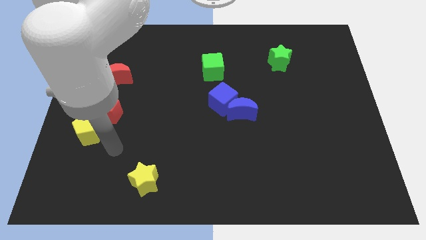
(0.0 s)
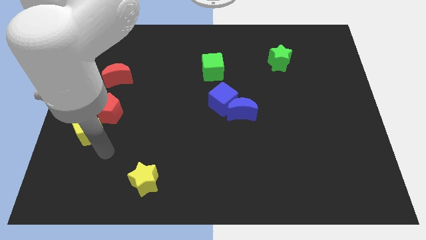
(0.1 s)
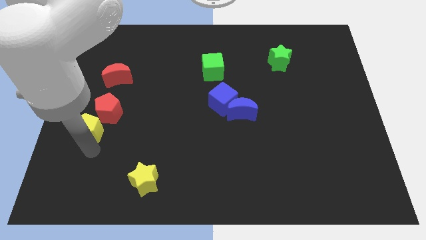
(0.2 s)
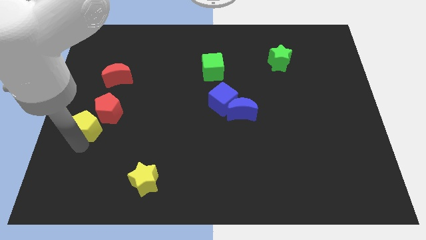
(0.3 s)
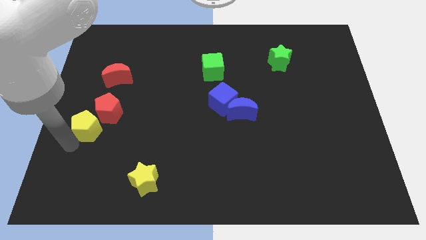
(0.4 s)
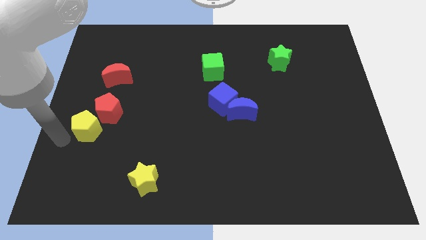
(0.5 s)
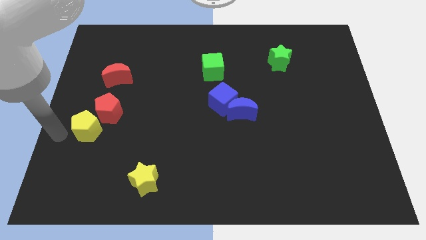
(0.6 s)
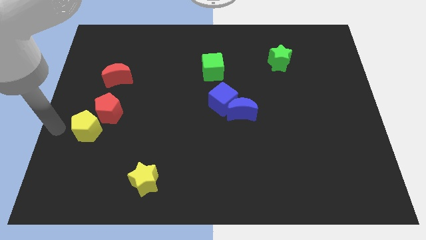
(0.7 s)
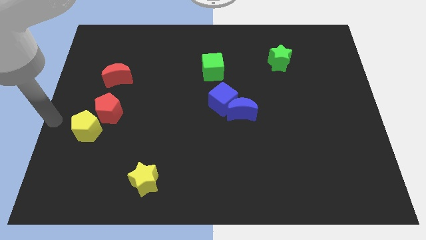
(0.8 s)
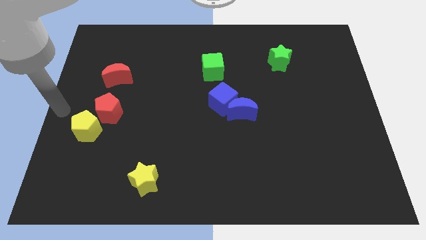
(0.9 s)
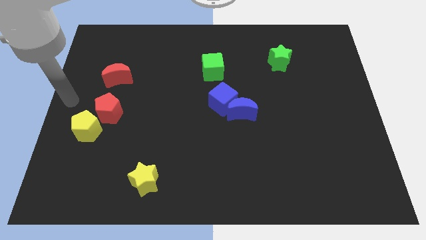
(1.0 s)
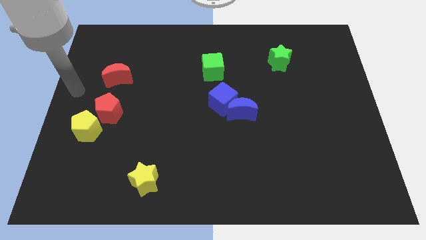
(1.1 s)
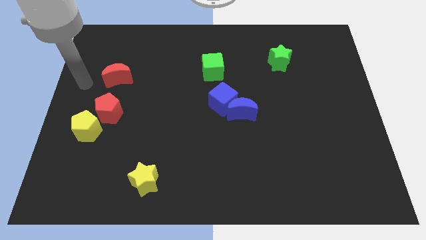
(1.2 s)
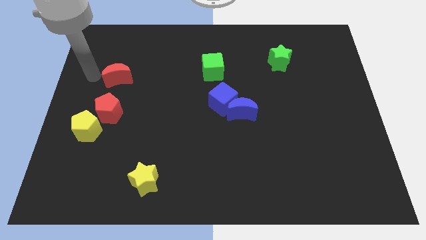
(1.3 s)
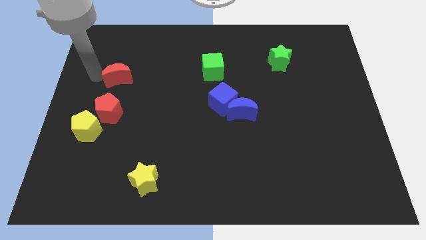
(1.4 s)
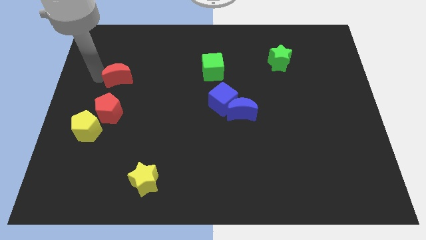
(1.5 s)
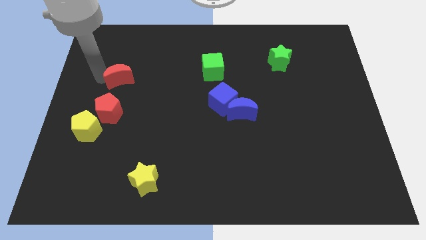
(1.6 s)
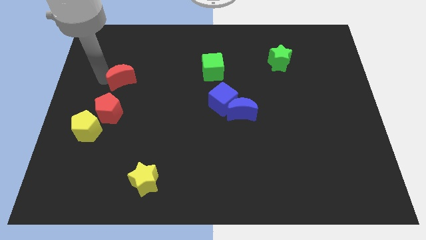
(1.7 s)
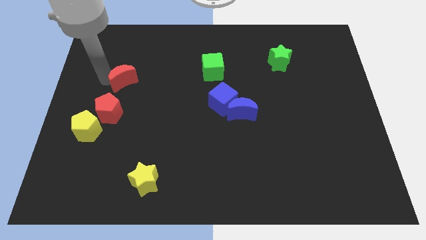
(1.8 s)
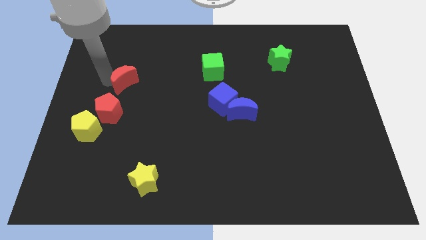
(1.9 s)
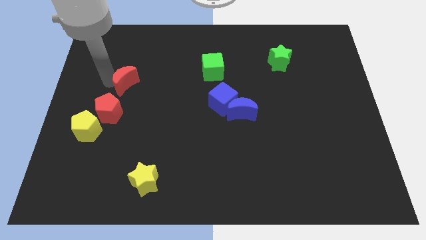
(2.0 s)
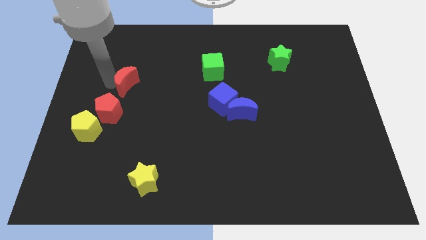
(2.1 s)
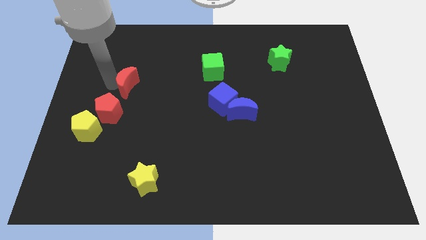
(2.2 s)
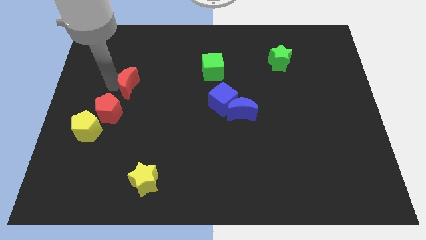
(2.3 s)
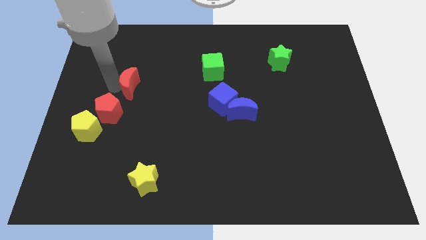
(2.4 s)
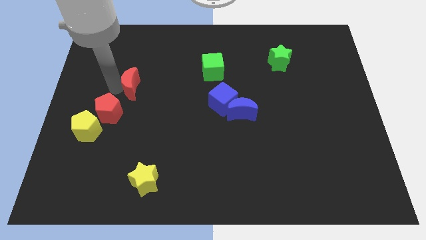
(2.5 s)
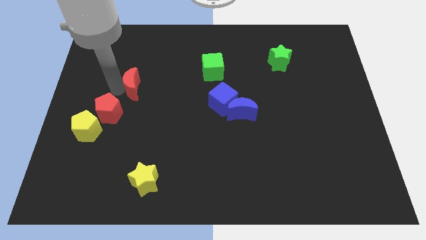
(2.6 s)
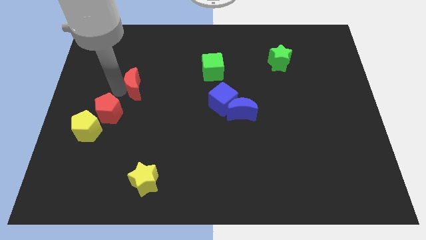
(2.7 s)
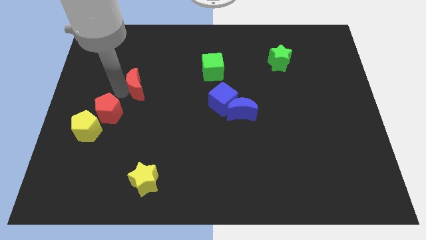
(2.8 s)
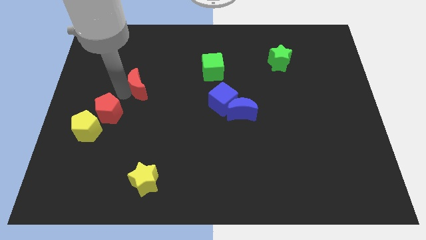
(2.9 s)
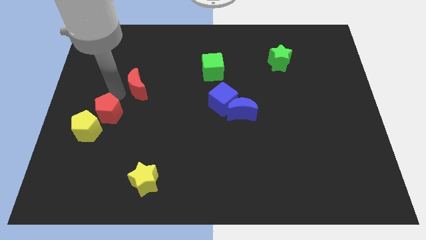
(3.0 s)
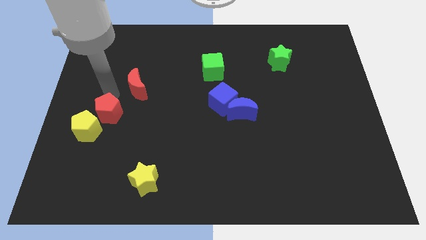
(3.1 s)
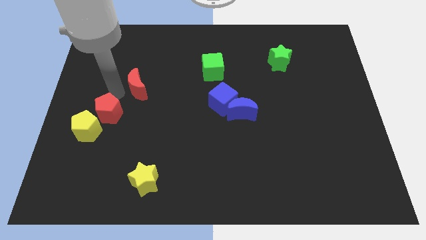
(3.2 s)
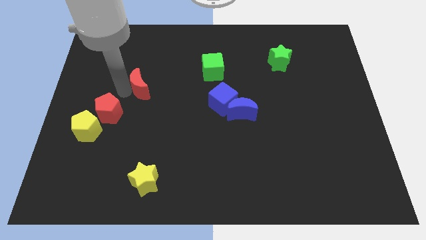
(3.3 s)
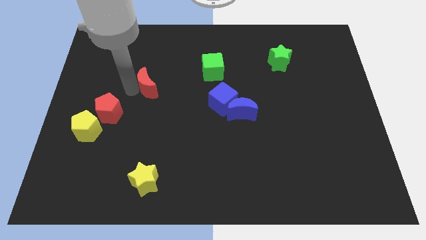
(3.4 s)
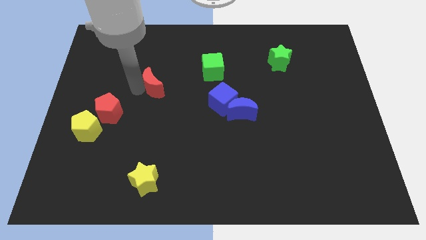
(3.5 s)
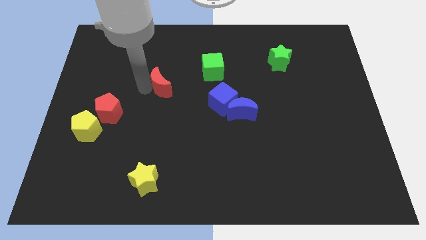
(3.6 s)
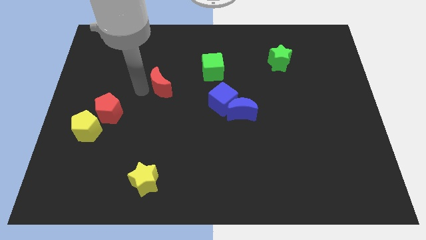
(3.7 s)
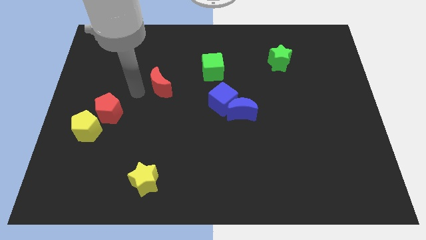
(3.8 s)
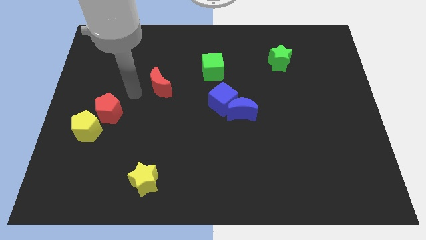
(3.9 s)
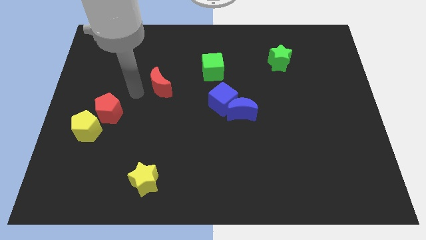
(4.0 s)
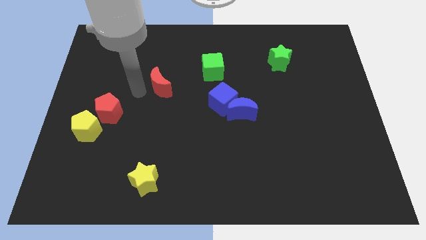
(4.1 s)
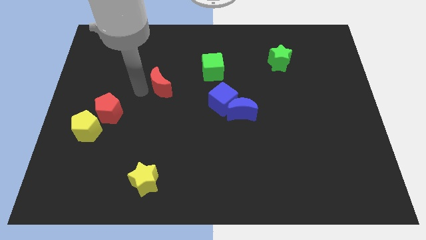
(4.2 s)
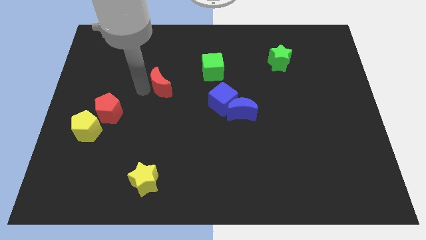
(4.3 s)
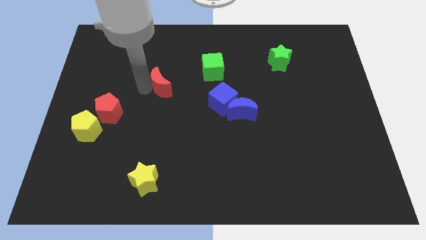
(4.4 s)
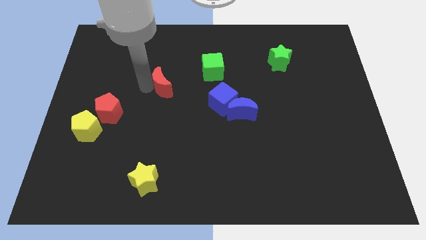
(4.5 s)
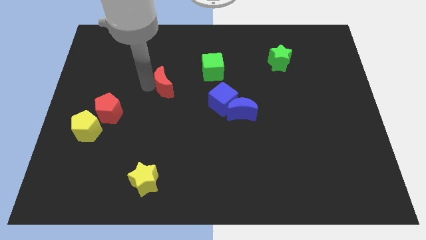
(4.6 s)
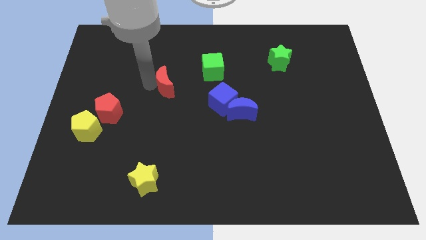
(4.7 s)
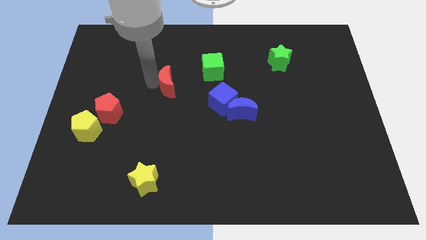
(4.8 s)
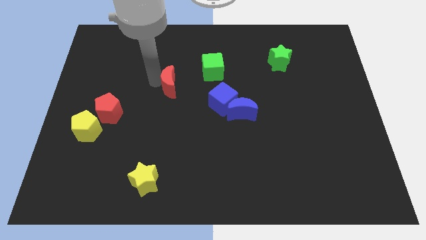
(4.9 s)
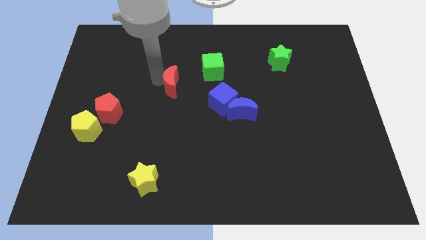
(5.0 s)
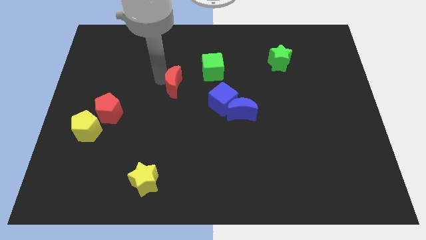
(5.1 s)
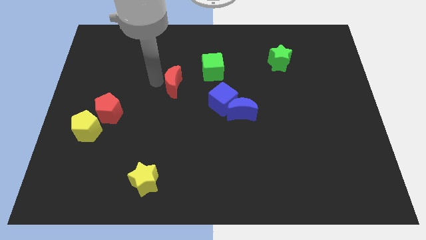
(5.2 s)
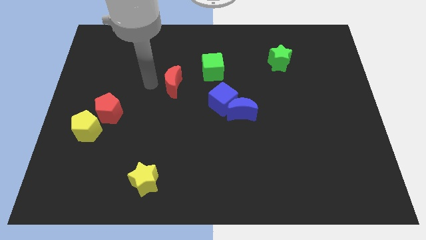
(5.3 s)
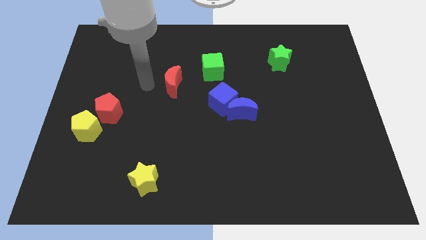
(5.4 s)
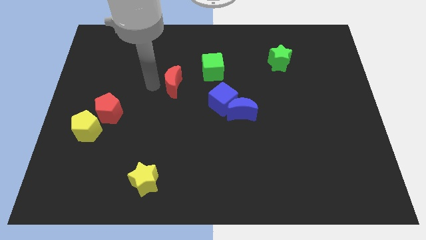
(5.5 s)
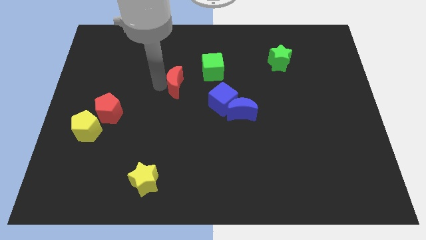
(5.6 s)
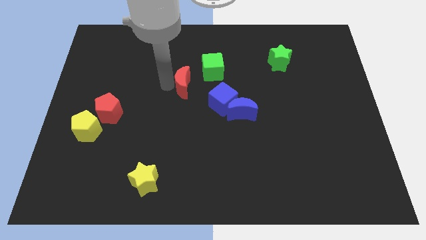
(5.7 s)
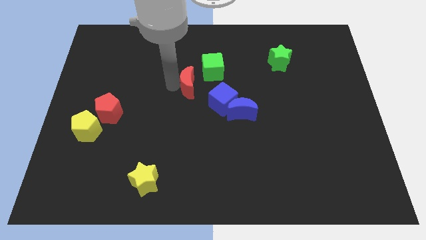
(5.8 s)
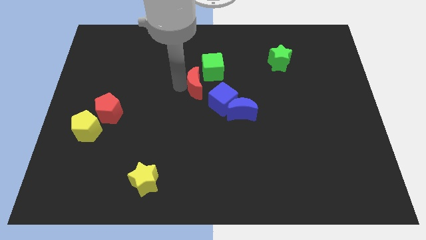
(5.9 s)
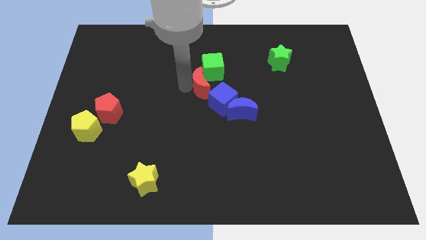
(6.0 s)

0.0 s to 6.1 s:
push the red moon right

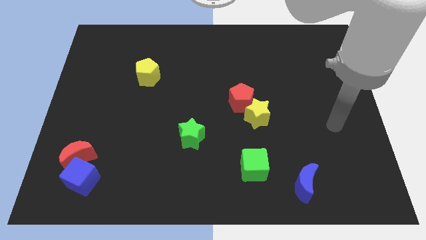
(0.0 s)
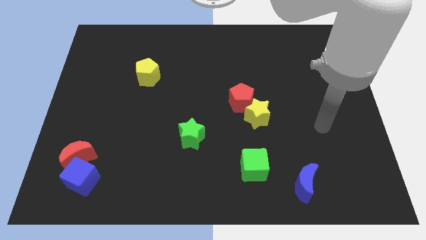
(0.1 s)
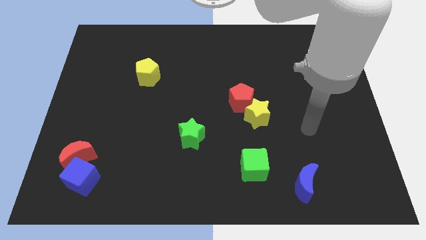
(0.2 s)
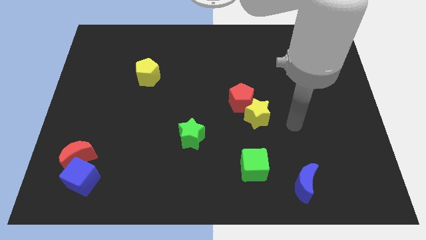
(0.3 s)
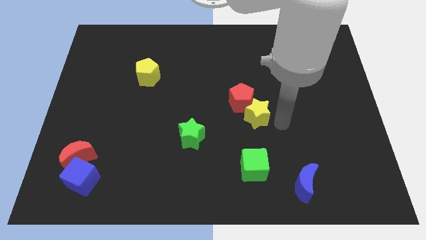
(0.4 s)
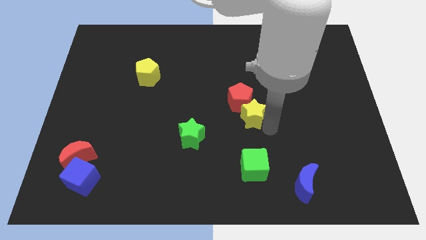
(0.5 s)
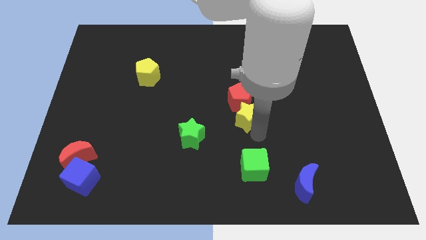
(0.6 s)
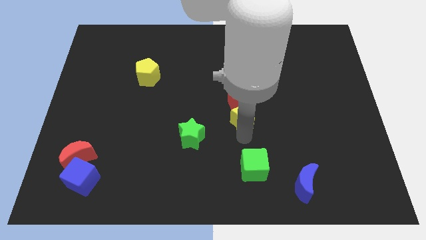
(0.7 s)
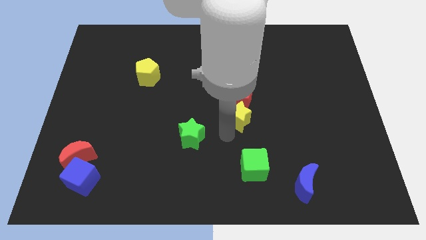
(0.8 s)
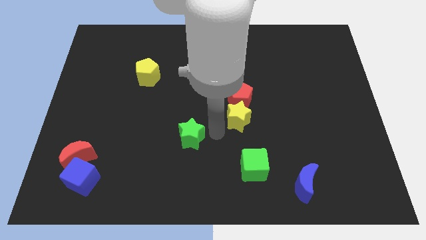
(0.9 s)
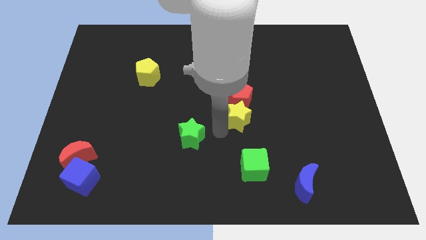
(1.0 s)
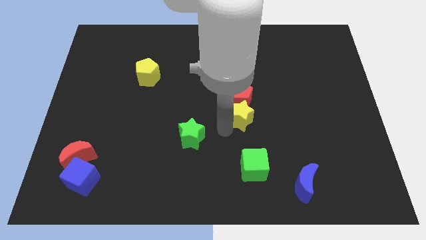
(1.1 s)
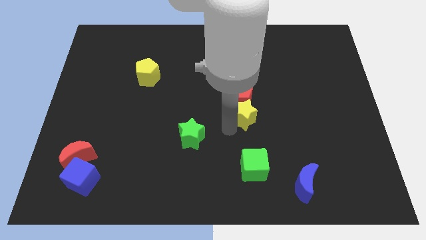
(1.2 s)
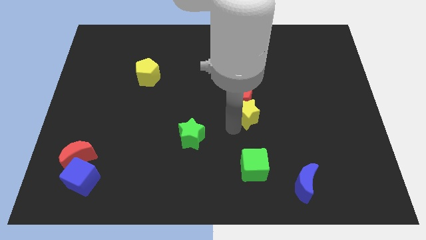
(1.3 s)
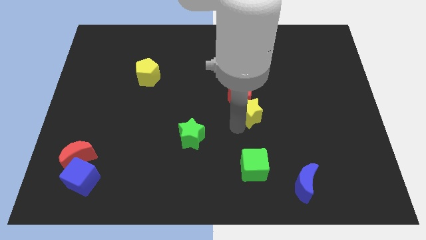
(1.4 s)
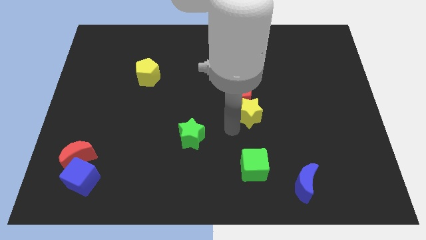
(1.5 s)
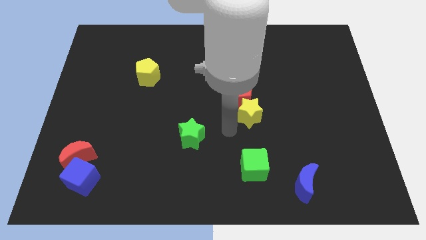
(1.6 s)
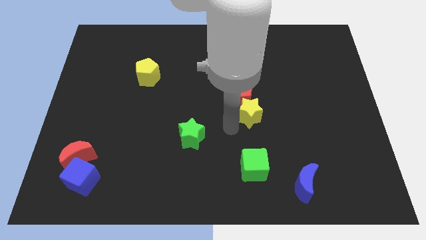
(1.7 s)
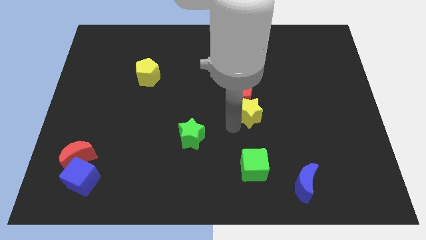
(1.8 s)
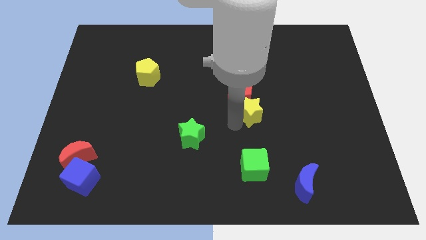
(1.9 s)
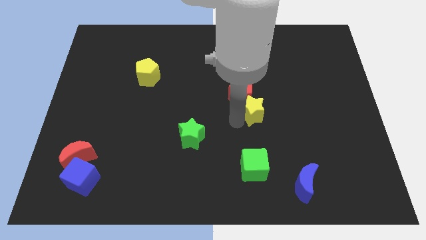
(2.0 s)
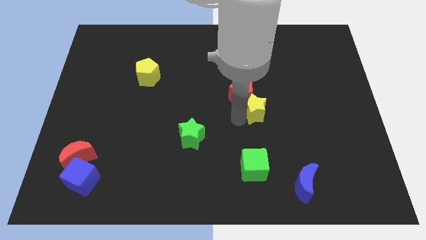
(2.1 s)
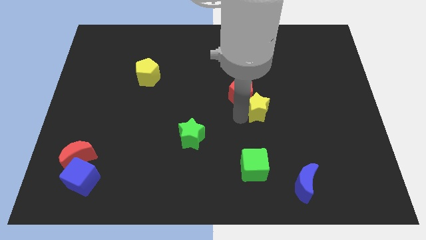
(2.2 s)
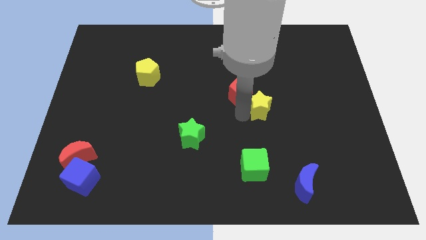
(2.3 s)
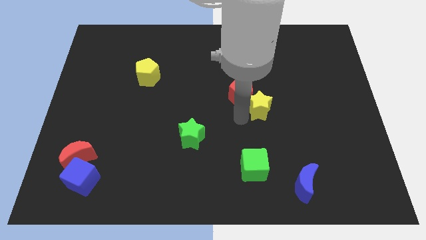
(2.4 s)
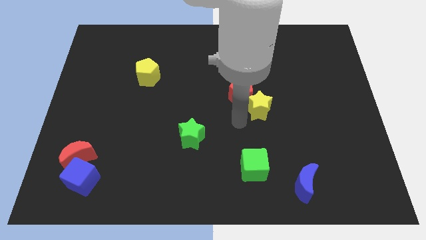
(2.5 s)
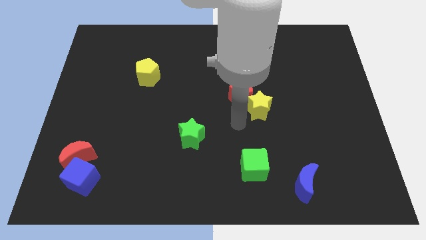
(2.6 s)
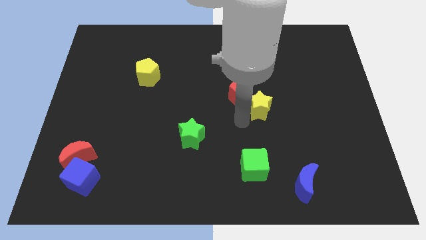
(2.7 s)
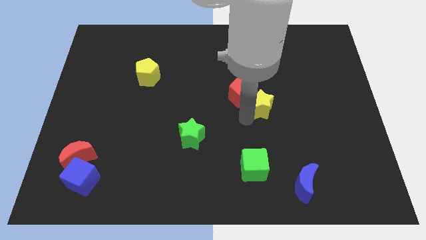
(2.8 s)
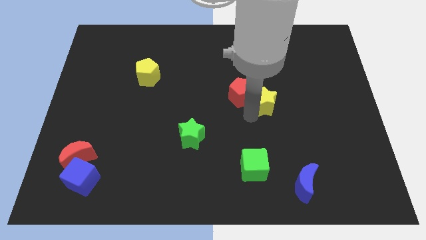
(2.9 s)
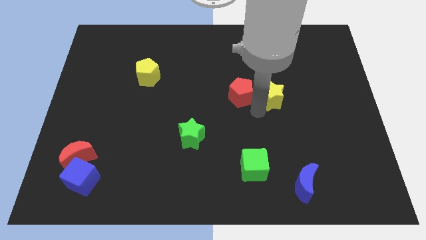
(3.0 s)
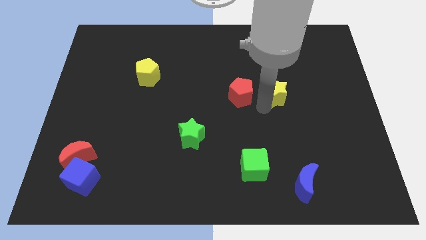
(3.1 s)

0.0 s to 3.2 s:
slightly slide the yellow star up and to the right diagonally
